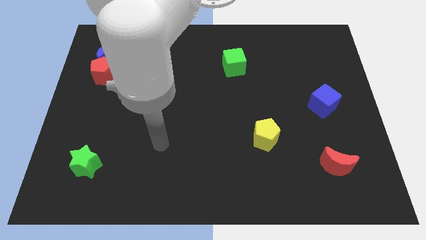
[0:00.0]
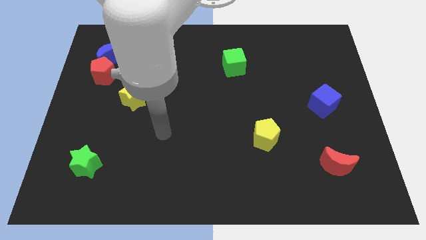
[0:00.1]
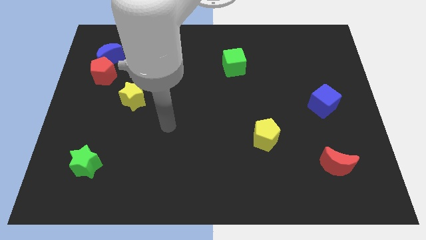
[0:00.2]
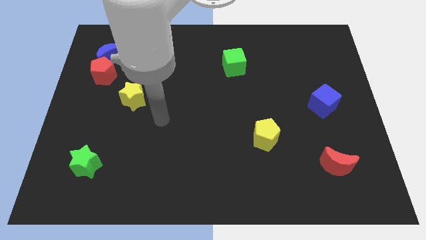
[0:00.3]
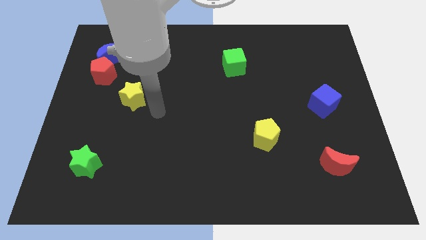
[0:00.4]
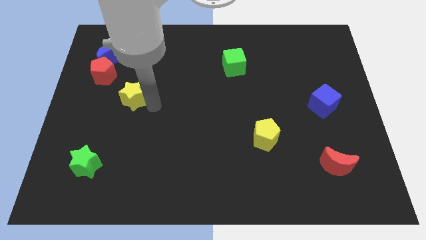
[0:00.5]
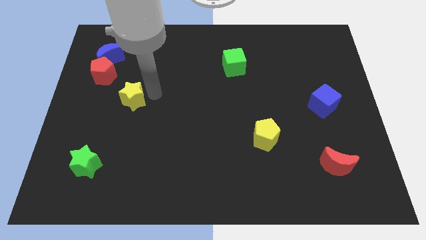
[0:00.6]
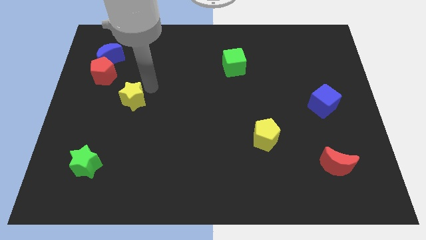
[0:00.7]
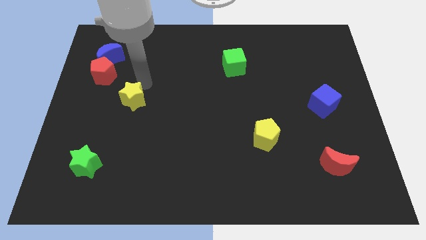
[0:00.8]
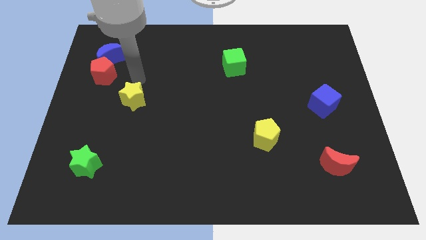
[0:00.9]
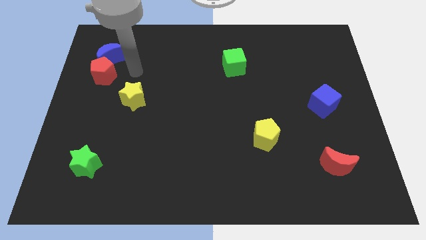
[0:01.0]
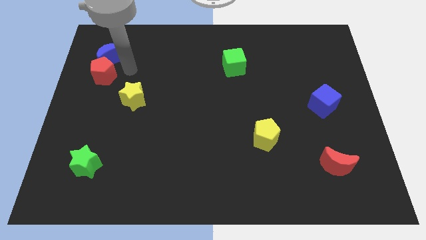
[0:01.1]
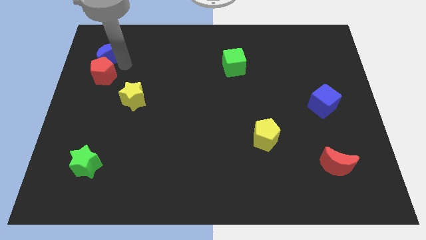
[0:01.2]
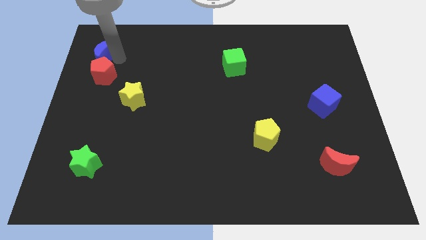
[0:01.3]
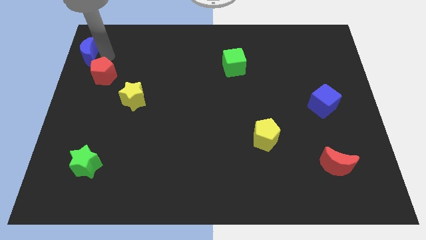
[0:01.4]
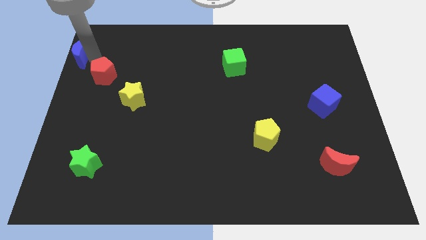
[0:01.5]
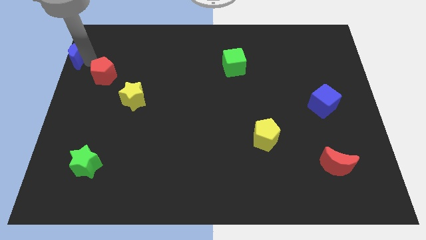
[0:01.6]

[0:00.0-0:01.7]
move the red pentagon away from the blue moon

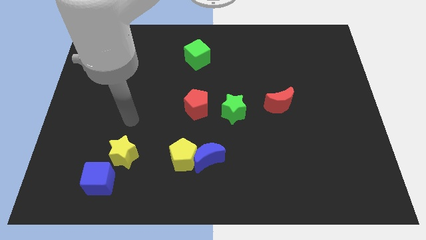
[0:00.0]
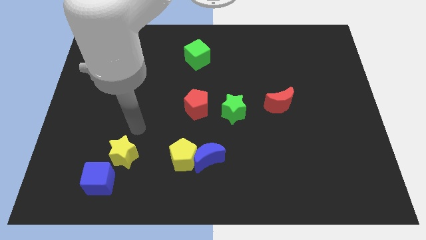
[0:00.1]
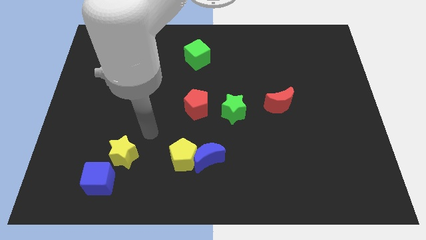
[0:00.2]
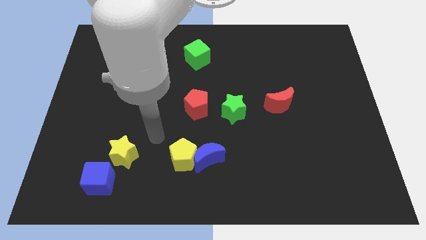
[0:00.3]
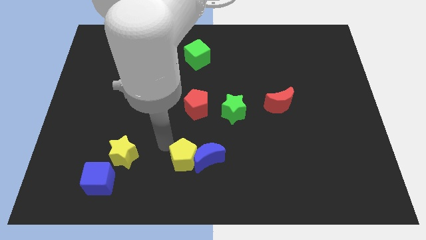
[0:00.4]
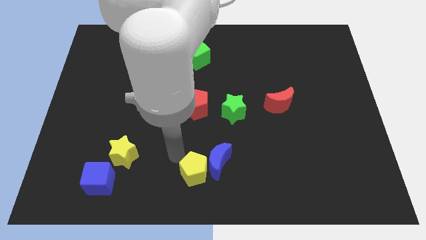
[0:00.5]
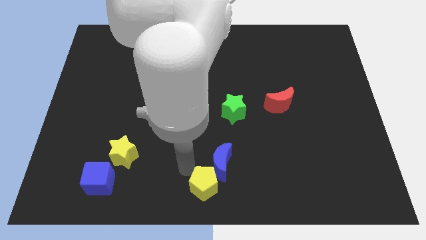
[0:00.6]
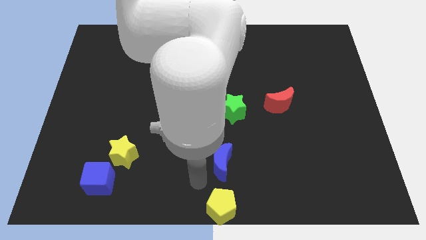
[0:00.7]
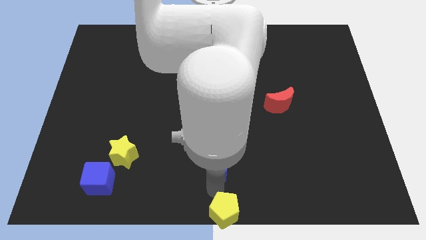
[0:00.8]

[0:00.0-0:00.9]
separate the blue moon from the yellow pentagon

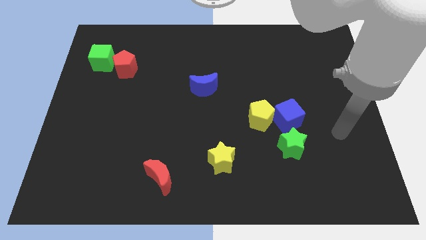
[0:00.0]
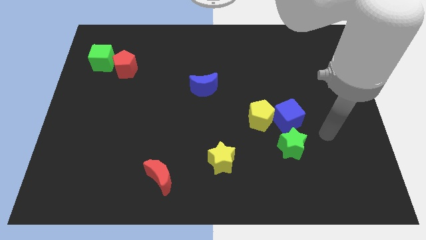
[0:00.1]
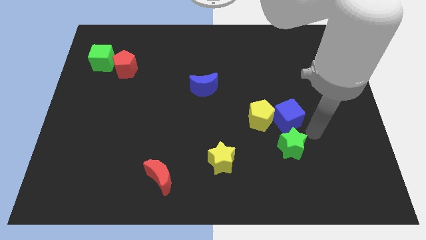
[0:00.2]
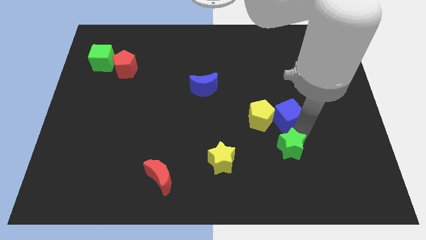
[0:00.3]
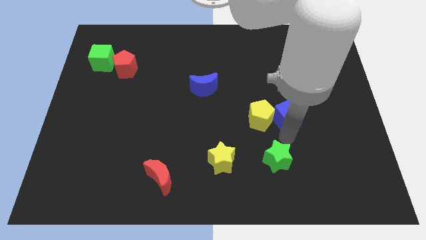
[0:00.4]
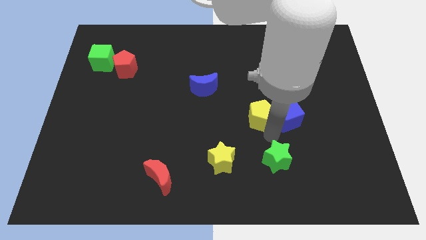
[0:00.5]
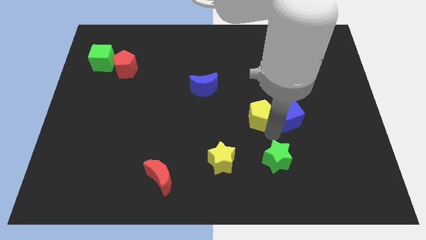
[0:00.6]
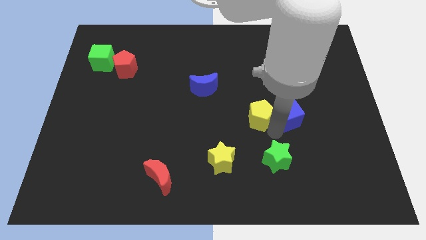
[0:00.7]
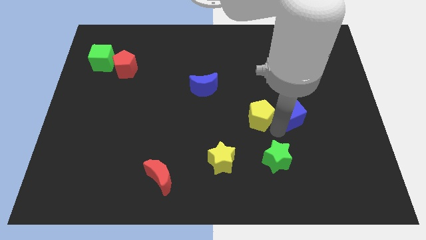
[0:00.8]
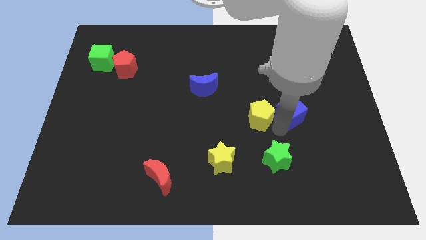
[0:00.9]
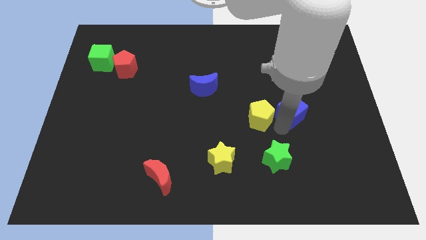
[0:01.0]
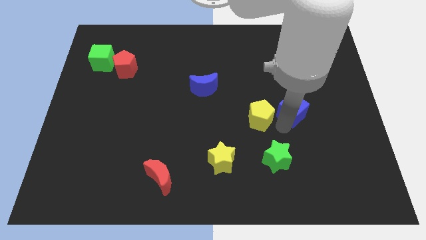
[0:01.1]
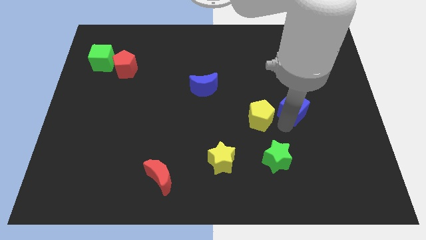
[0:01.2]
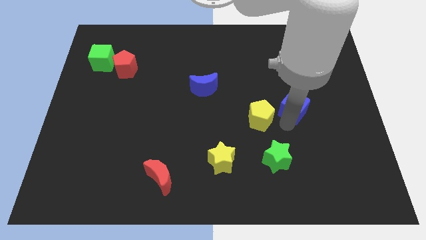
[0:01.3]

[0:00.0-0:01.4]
separate the blue cube from the yellow pentagon and green star

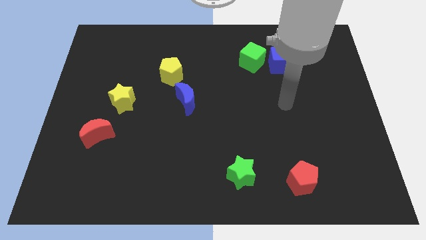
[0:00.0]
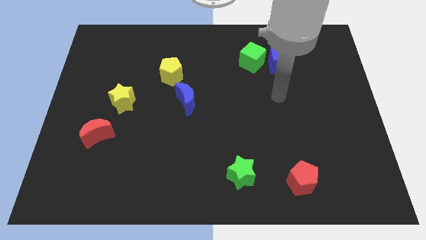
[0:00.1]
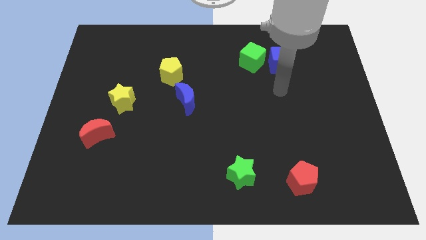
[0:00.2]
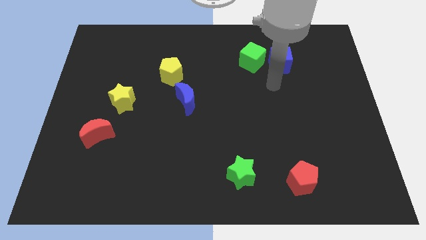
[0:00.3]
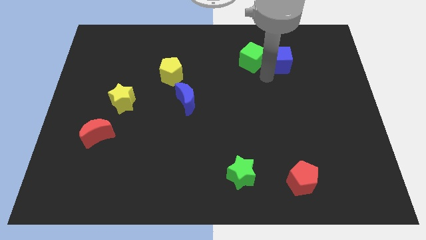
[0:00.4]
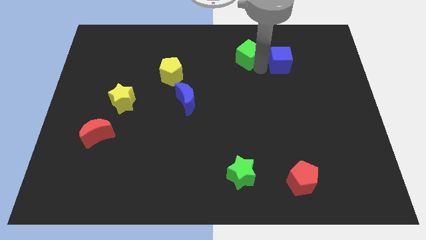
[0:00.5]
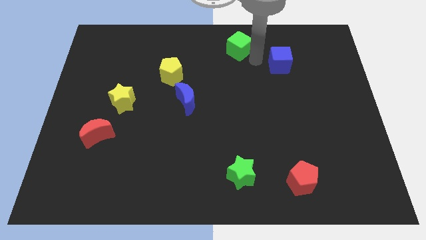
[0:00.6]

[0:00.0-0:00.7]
move the blue cube away from the green cube

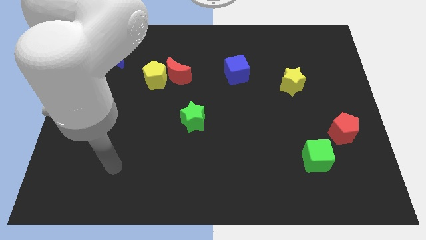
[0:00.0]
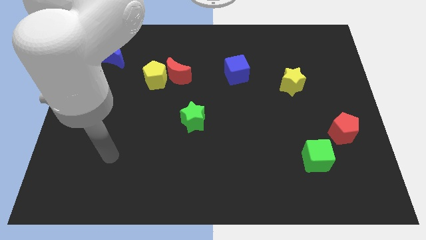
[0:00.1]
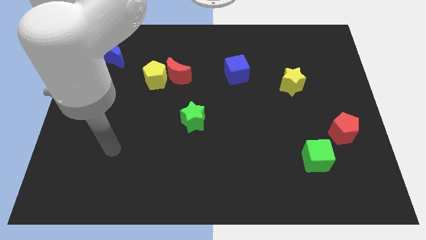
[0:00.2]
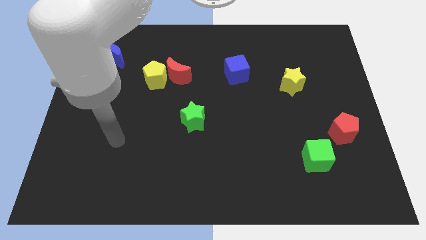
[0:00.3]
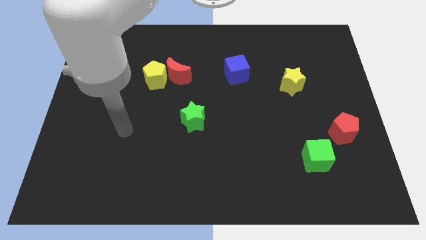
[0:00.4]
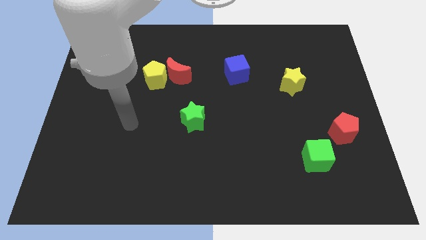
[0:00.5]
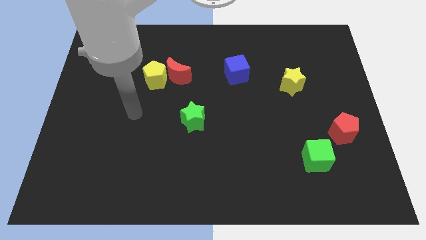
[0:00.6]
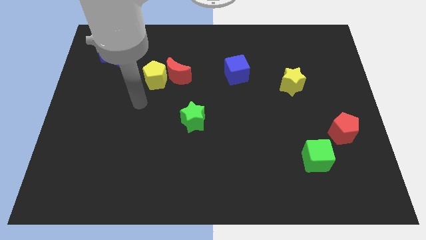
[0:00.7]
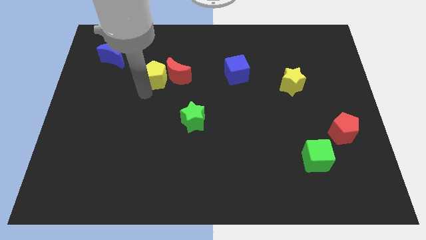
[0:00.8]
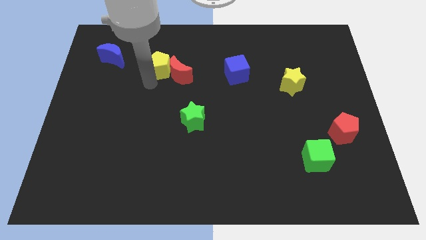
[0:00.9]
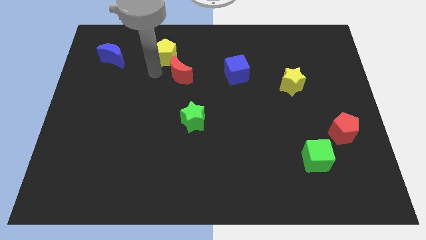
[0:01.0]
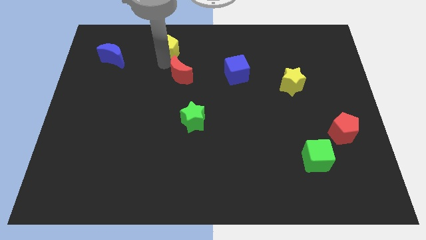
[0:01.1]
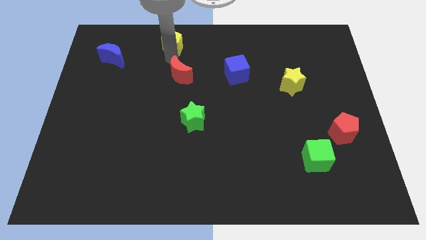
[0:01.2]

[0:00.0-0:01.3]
pull the red moon apart from the yellow pentagon

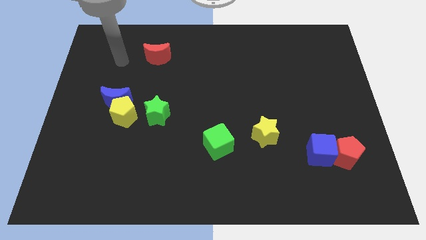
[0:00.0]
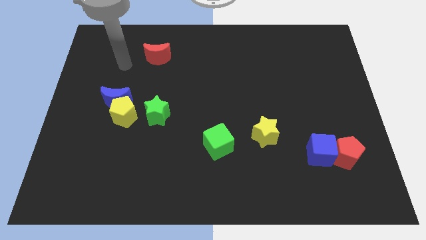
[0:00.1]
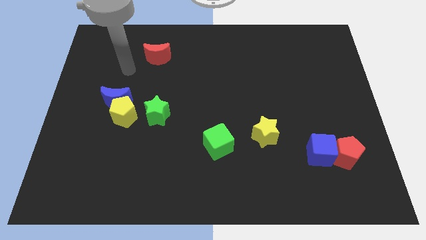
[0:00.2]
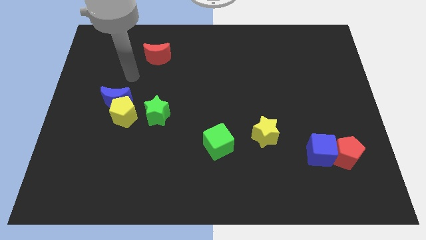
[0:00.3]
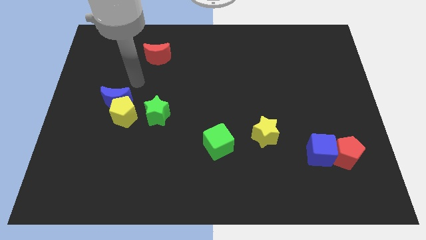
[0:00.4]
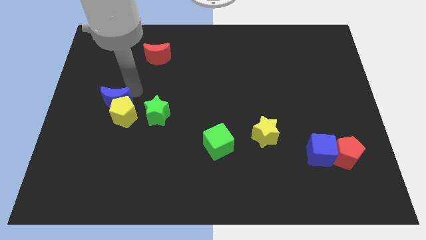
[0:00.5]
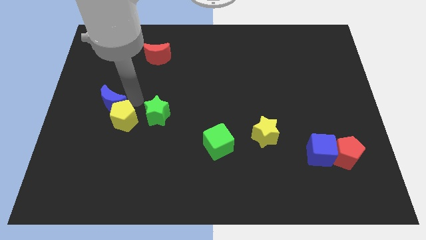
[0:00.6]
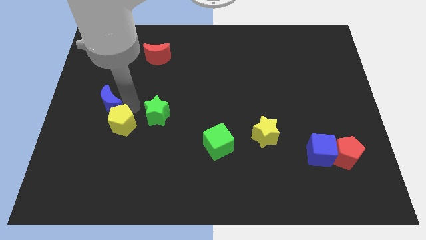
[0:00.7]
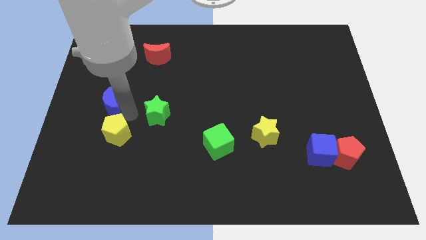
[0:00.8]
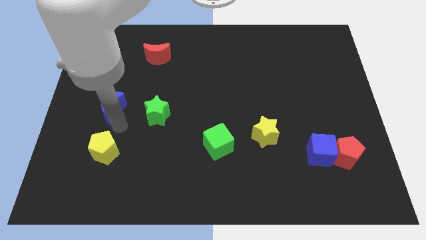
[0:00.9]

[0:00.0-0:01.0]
pull the blue moon apart from the yellow pentagon

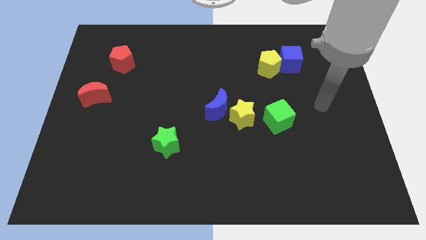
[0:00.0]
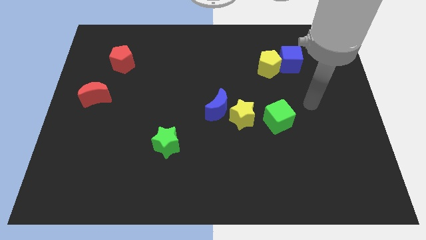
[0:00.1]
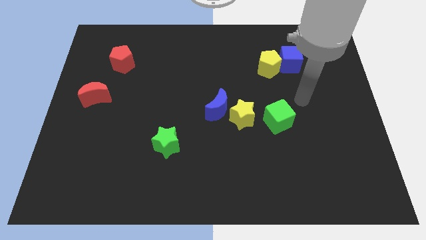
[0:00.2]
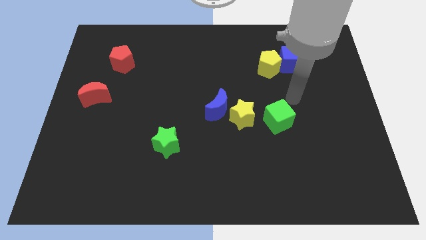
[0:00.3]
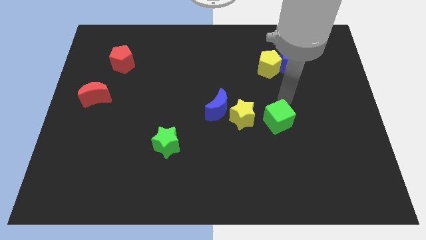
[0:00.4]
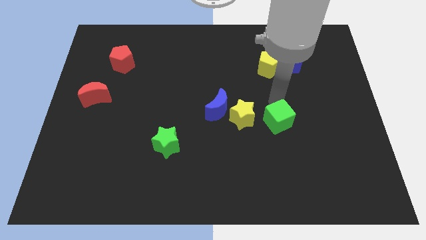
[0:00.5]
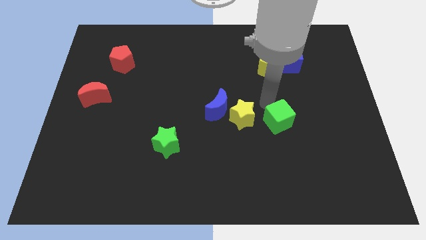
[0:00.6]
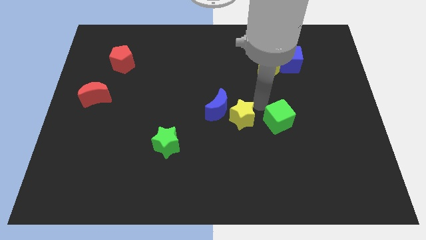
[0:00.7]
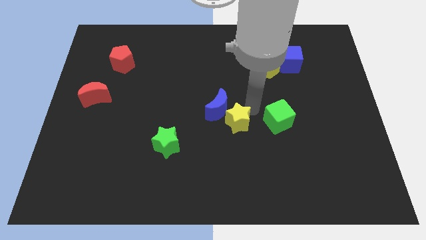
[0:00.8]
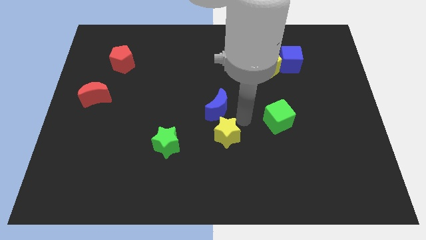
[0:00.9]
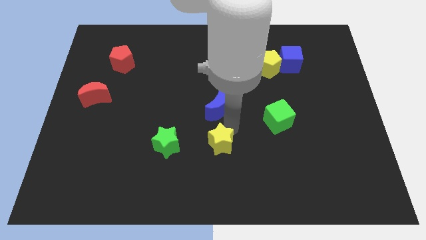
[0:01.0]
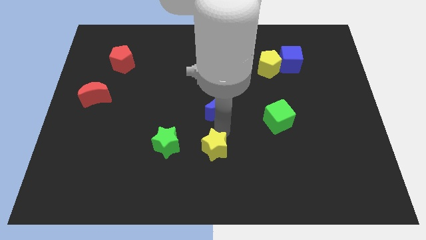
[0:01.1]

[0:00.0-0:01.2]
move the blue moon away from the yellow star

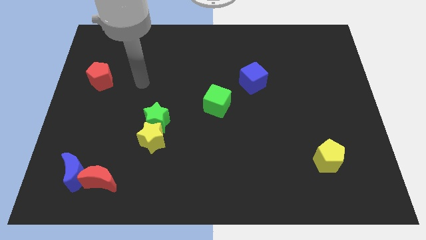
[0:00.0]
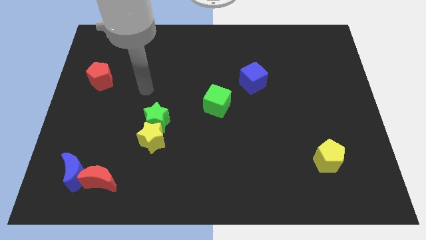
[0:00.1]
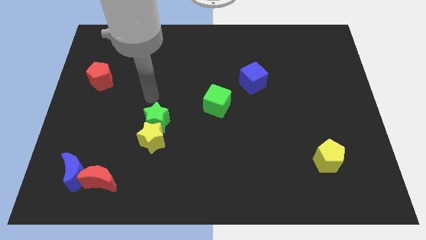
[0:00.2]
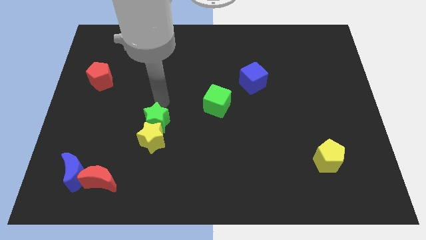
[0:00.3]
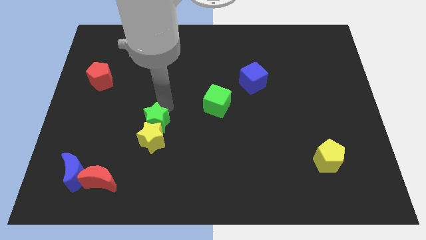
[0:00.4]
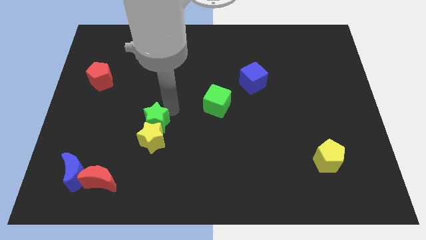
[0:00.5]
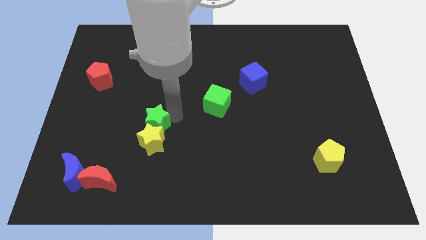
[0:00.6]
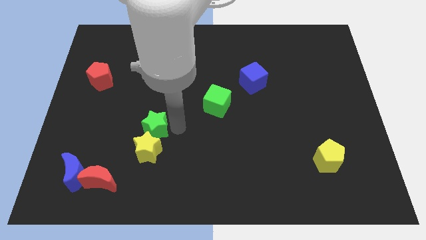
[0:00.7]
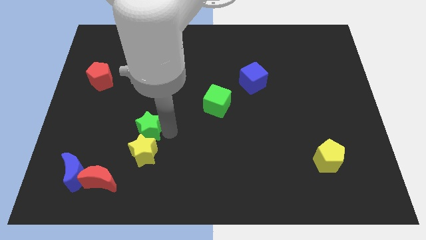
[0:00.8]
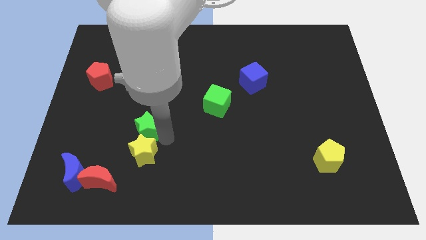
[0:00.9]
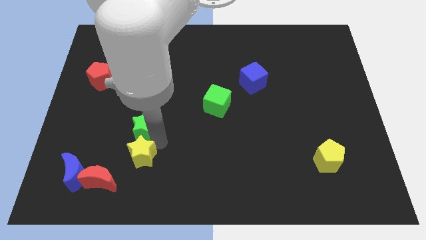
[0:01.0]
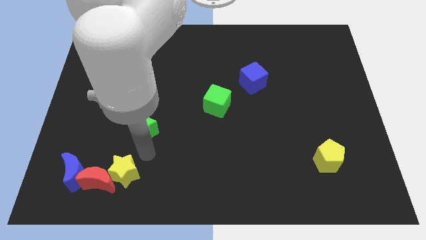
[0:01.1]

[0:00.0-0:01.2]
separate the green star from the yellow star
